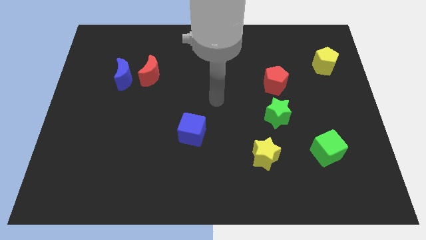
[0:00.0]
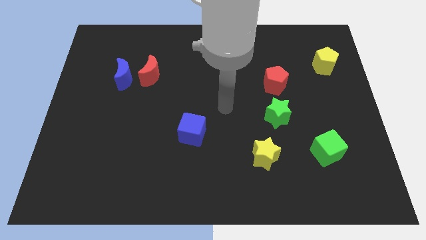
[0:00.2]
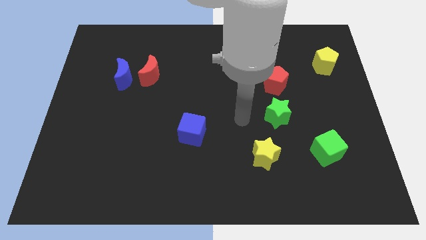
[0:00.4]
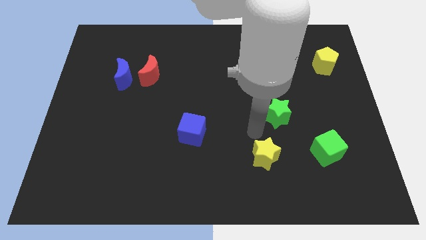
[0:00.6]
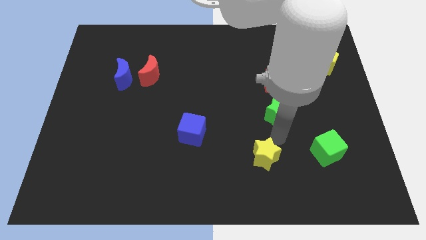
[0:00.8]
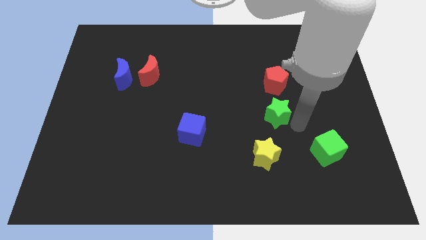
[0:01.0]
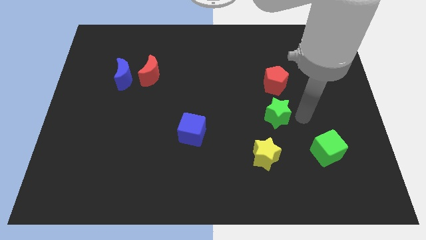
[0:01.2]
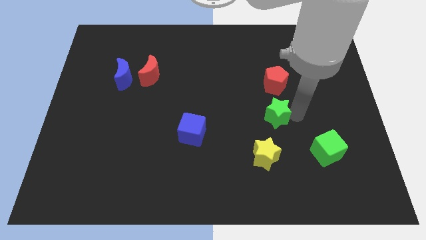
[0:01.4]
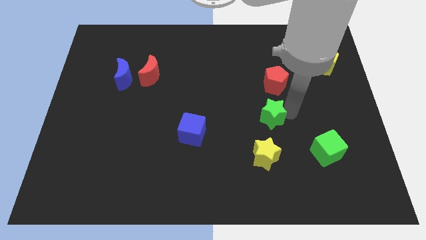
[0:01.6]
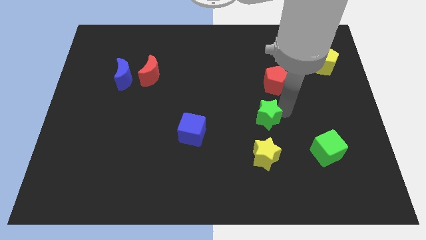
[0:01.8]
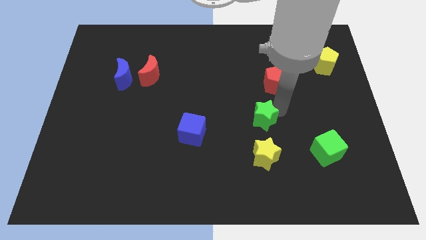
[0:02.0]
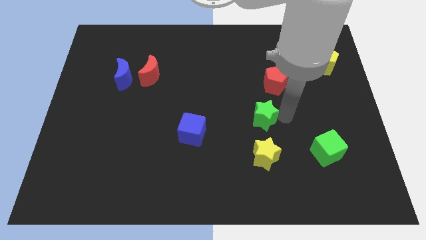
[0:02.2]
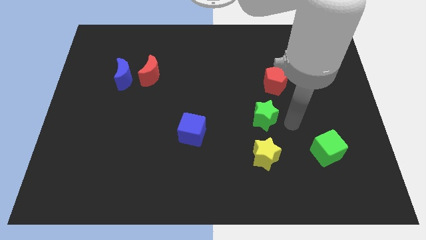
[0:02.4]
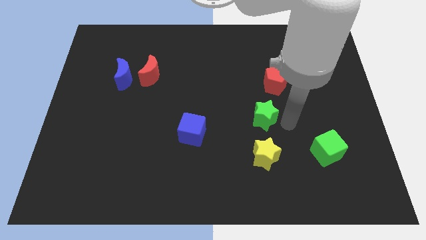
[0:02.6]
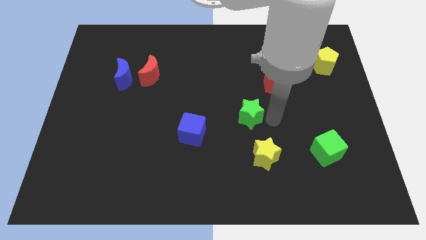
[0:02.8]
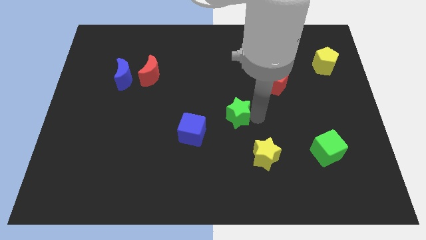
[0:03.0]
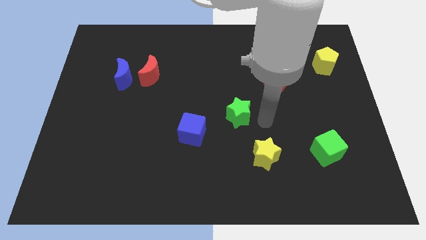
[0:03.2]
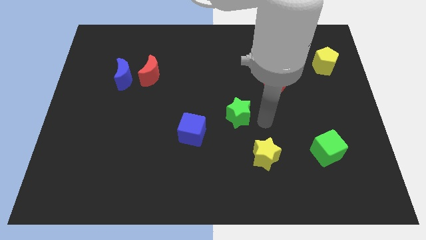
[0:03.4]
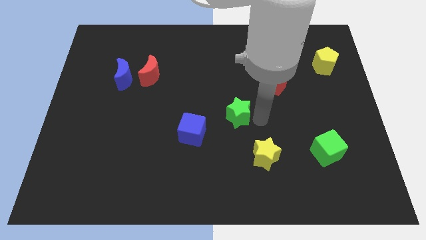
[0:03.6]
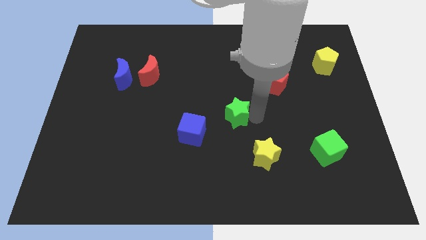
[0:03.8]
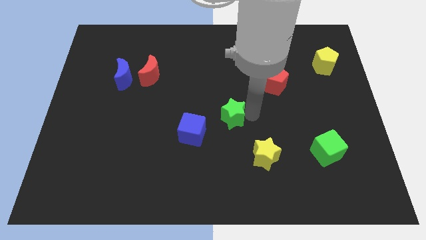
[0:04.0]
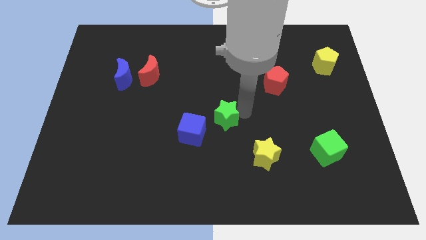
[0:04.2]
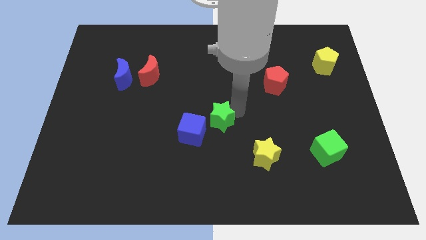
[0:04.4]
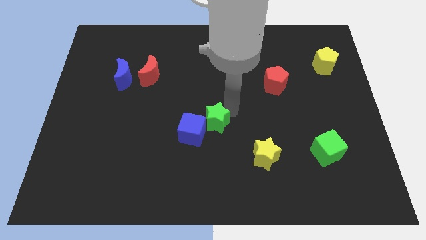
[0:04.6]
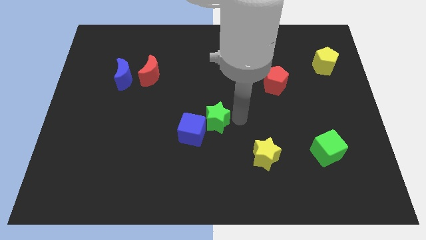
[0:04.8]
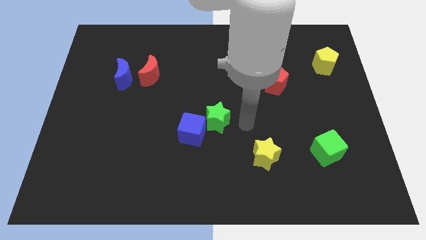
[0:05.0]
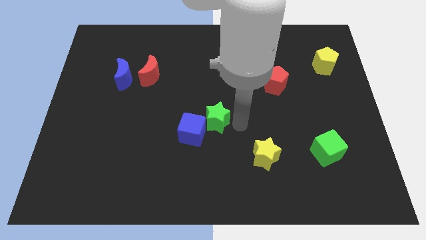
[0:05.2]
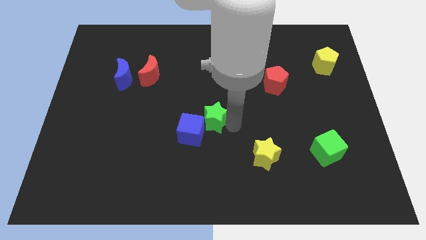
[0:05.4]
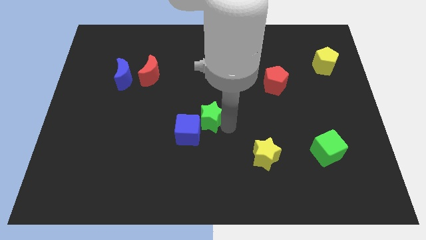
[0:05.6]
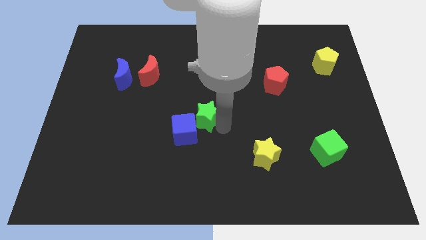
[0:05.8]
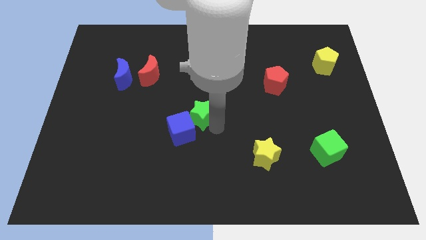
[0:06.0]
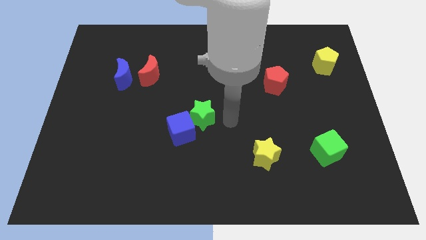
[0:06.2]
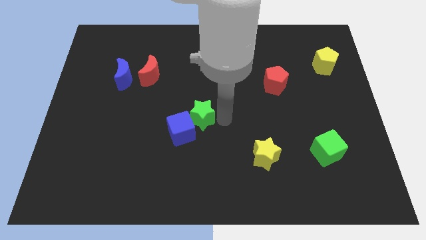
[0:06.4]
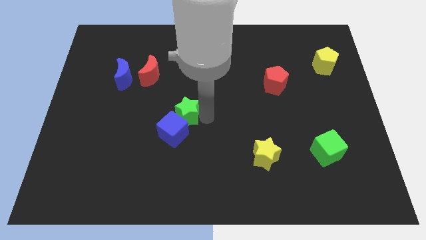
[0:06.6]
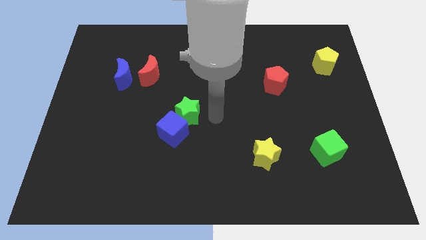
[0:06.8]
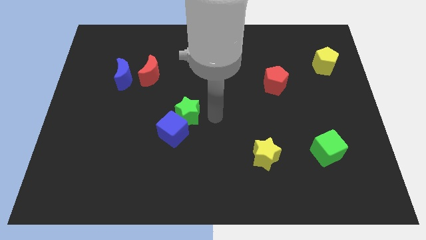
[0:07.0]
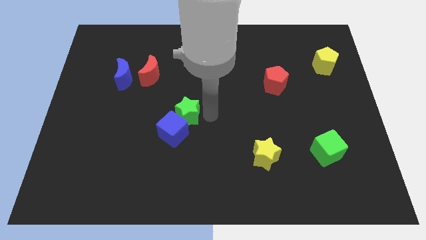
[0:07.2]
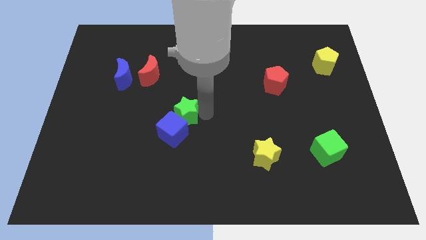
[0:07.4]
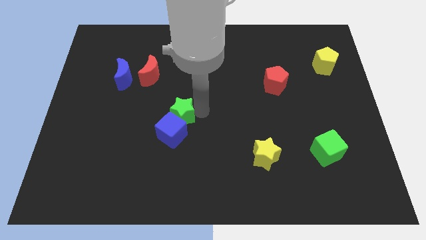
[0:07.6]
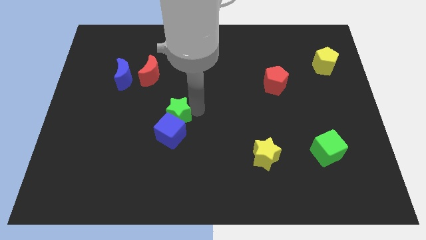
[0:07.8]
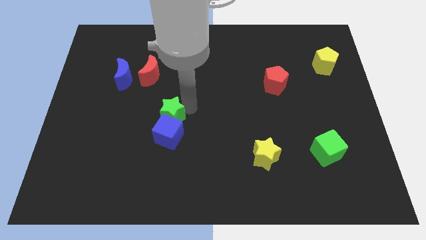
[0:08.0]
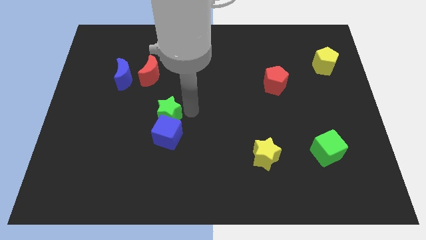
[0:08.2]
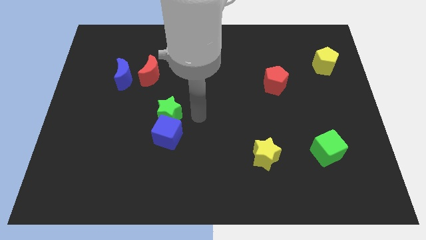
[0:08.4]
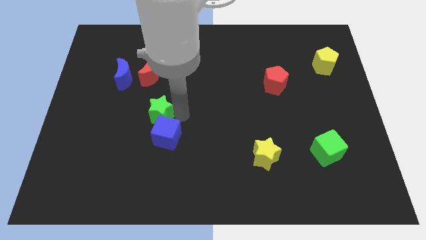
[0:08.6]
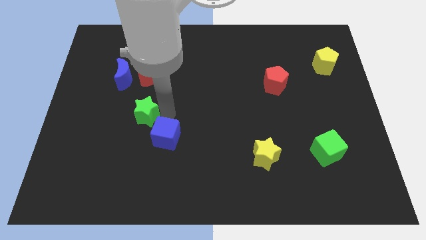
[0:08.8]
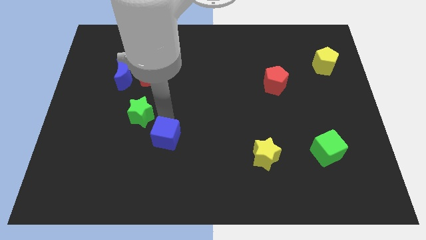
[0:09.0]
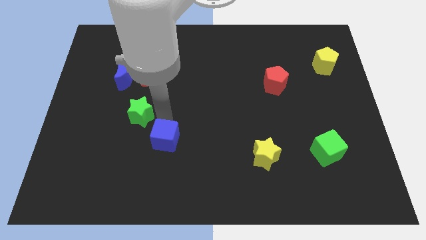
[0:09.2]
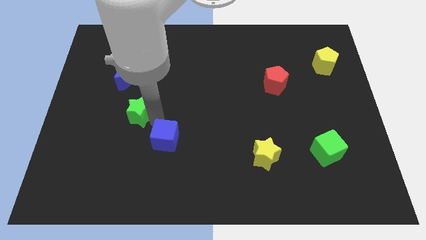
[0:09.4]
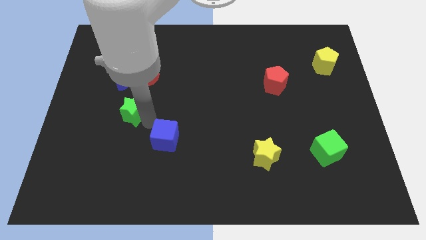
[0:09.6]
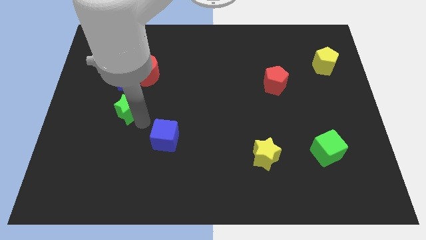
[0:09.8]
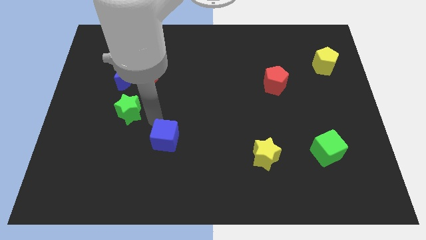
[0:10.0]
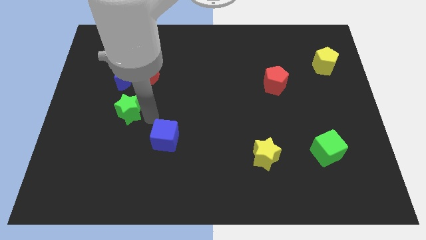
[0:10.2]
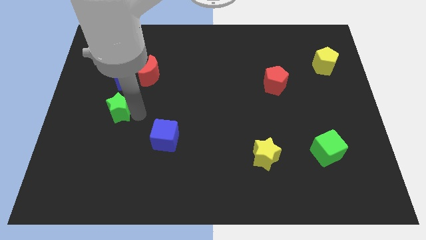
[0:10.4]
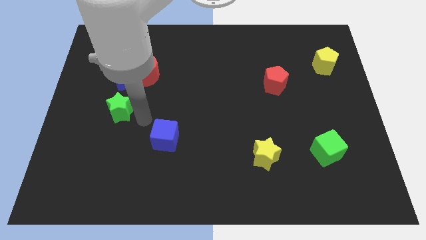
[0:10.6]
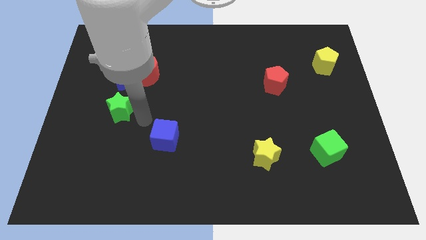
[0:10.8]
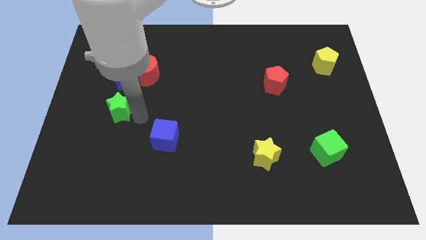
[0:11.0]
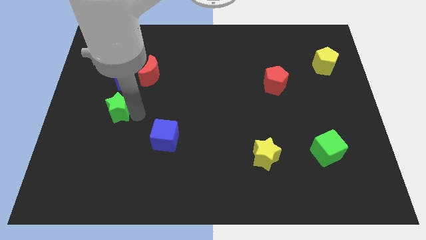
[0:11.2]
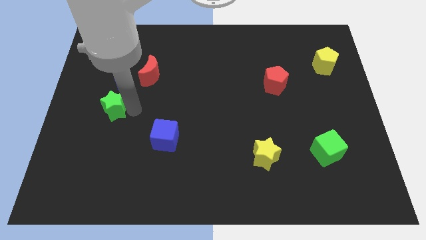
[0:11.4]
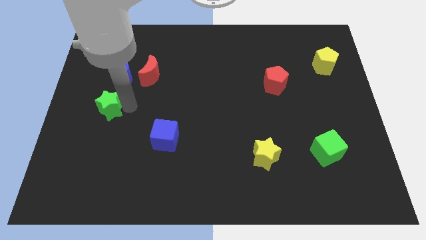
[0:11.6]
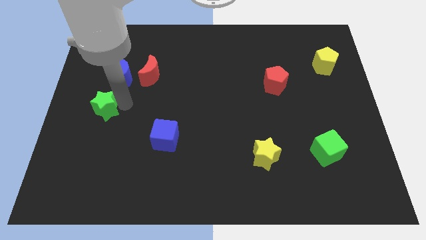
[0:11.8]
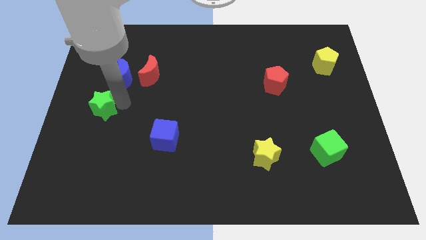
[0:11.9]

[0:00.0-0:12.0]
put the green star to the center left
